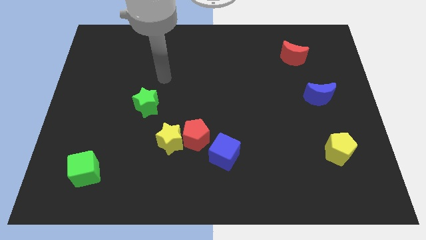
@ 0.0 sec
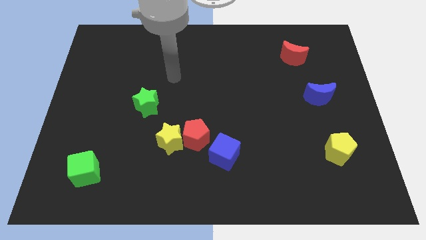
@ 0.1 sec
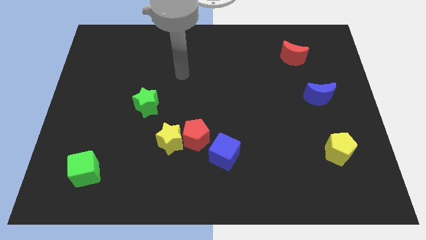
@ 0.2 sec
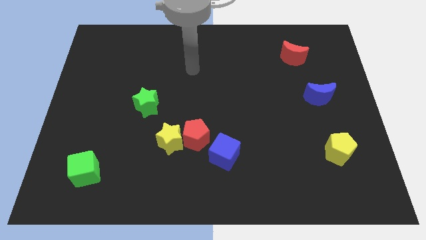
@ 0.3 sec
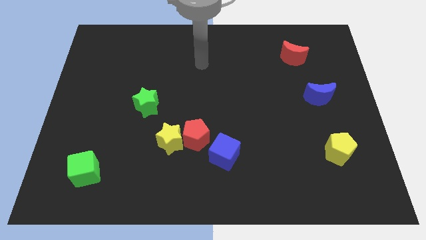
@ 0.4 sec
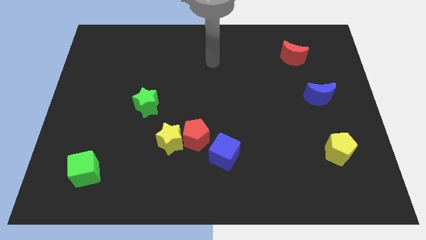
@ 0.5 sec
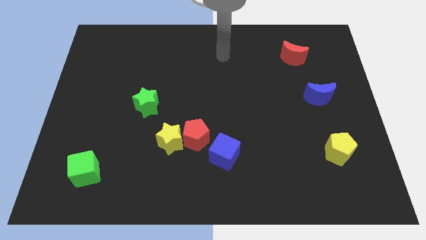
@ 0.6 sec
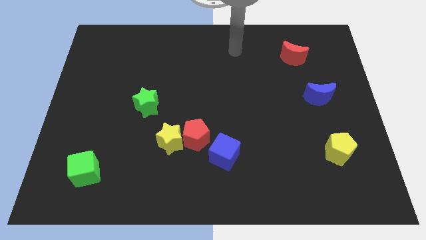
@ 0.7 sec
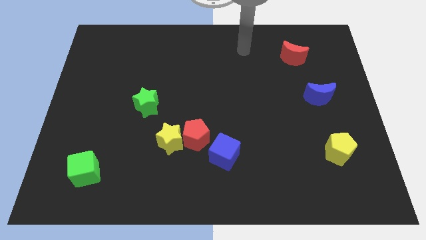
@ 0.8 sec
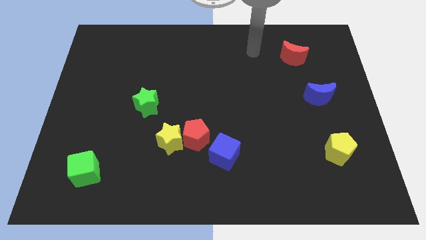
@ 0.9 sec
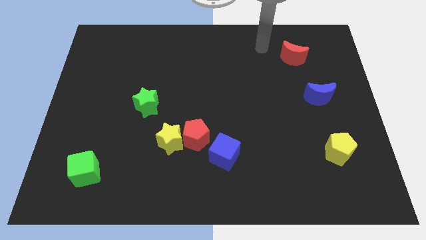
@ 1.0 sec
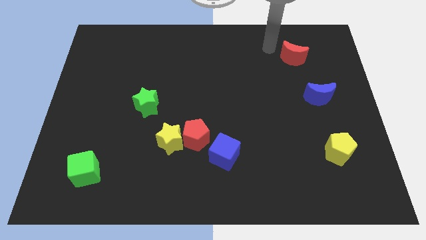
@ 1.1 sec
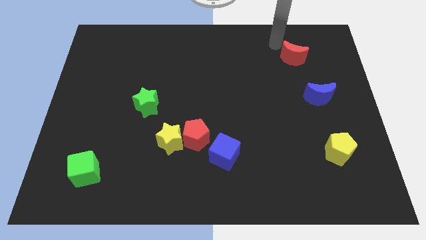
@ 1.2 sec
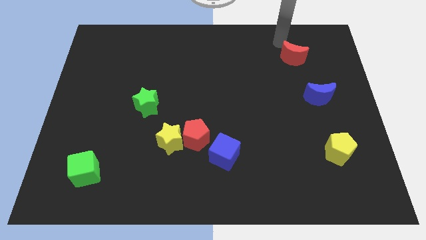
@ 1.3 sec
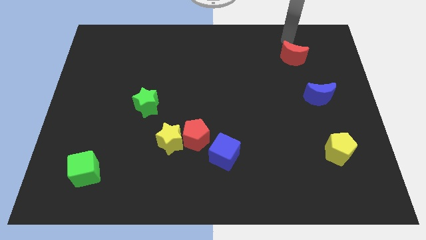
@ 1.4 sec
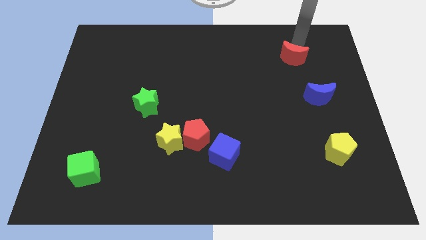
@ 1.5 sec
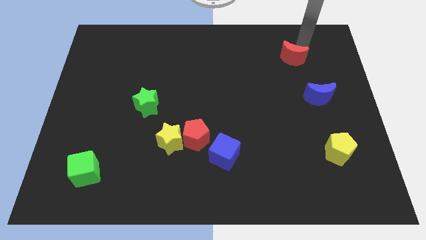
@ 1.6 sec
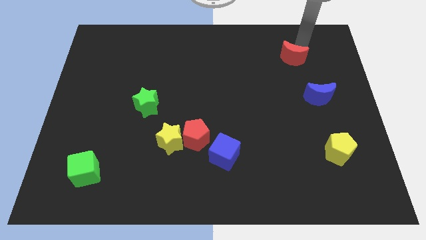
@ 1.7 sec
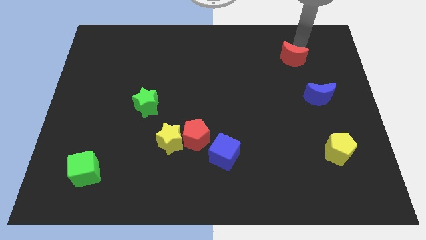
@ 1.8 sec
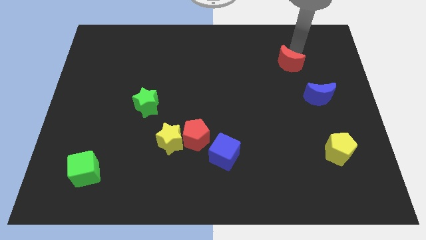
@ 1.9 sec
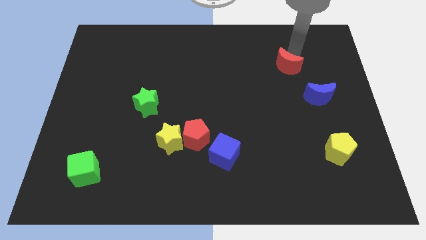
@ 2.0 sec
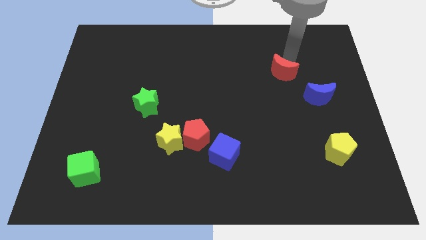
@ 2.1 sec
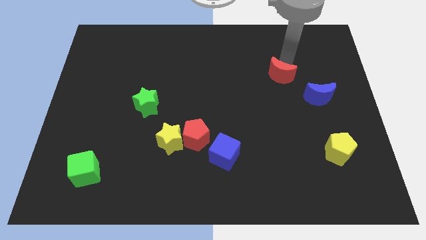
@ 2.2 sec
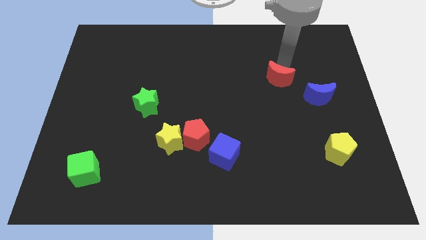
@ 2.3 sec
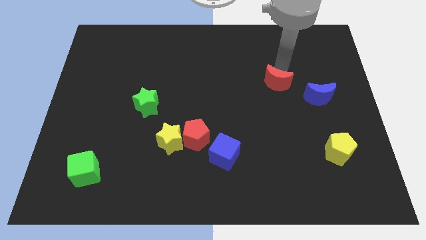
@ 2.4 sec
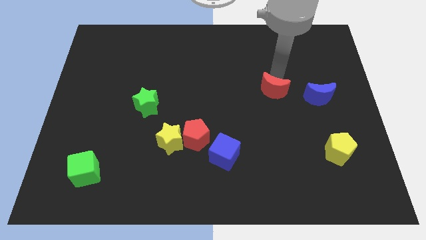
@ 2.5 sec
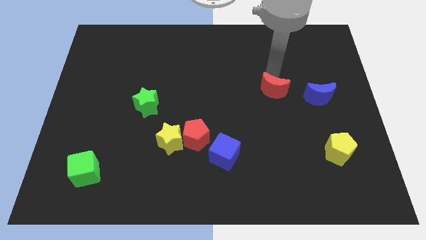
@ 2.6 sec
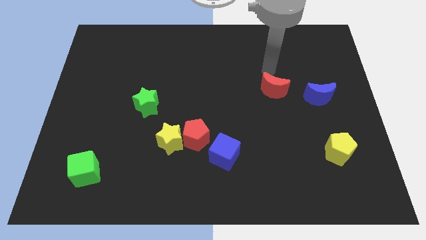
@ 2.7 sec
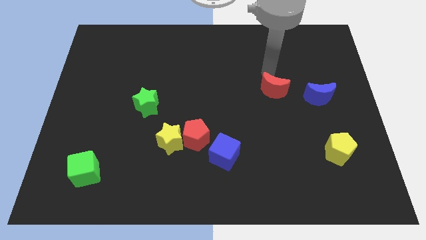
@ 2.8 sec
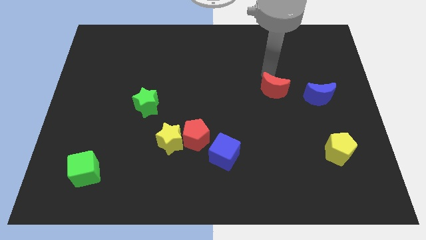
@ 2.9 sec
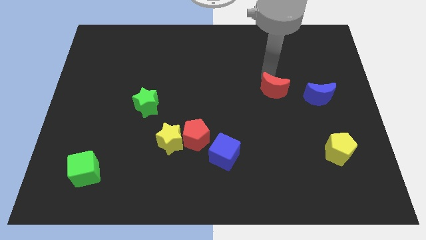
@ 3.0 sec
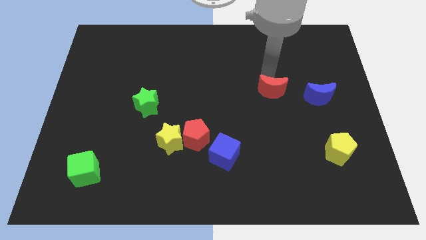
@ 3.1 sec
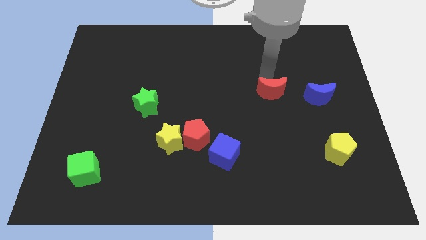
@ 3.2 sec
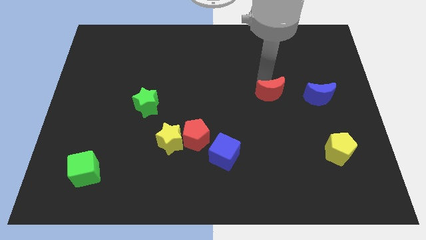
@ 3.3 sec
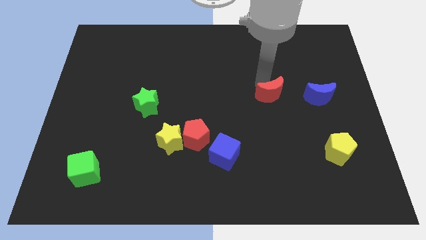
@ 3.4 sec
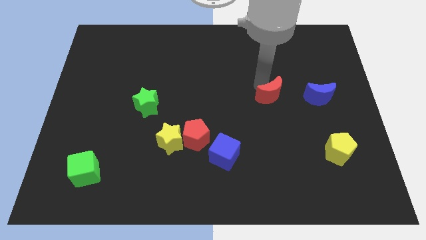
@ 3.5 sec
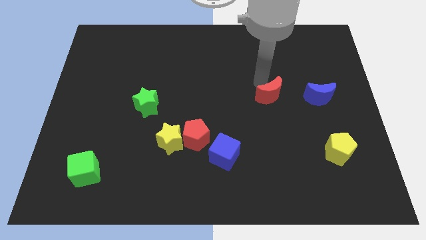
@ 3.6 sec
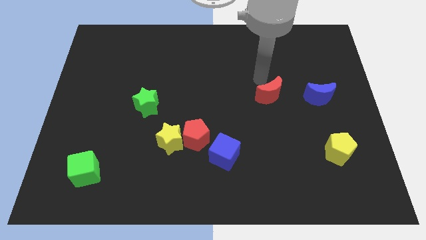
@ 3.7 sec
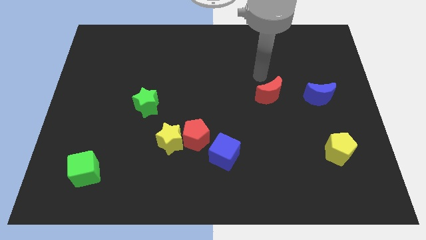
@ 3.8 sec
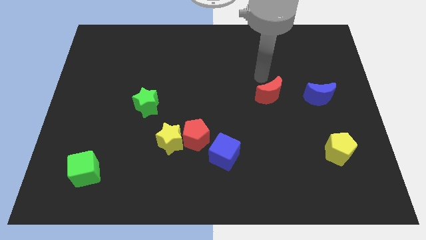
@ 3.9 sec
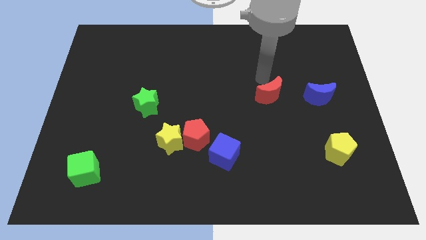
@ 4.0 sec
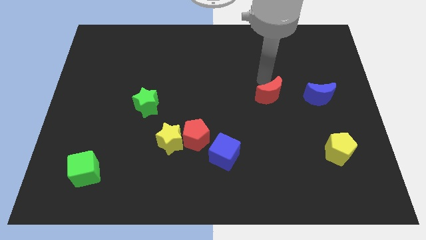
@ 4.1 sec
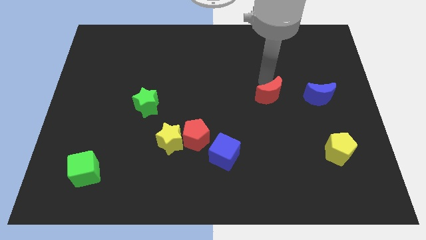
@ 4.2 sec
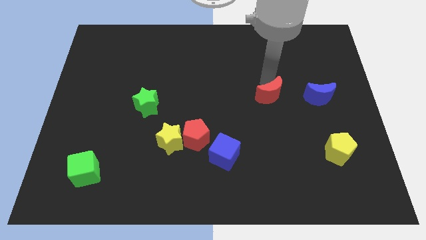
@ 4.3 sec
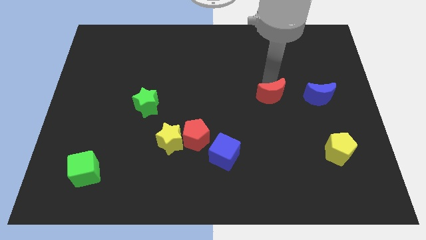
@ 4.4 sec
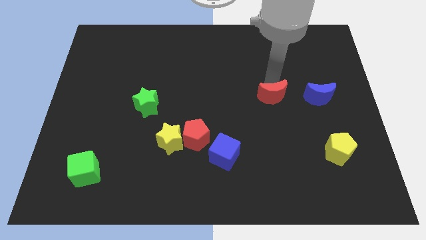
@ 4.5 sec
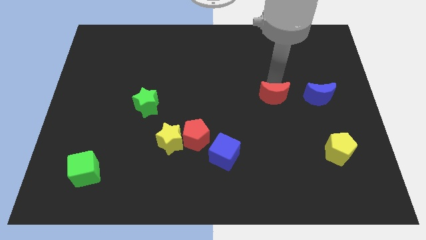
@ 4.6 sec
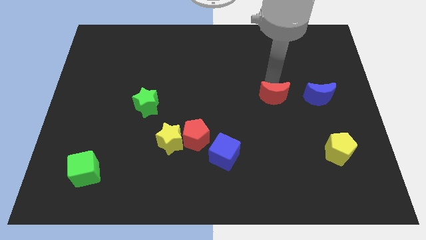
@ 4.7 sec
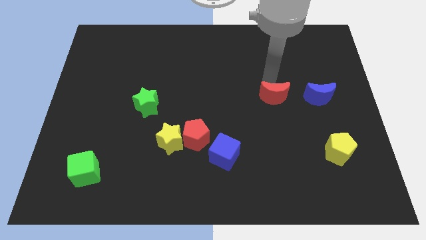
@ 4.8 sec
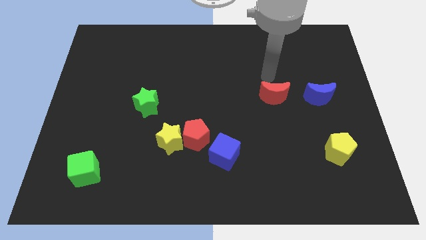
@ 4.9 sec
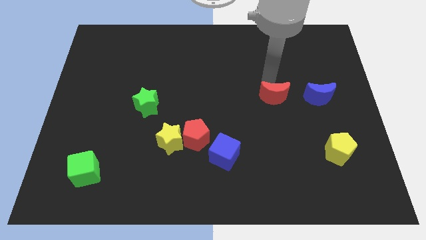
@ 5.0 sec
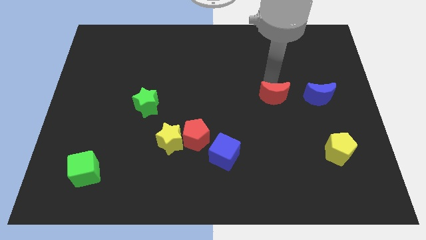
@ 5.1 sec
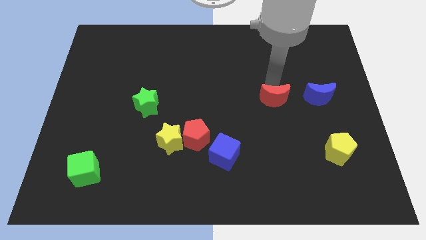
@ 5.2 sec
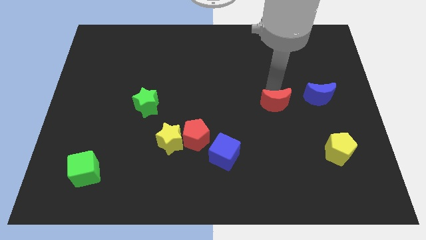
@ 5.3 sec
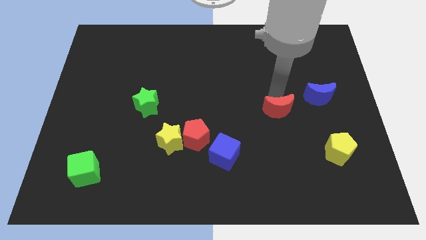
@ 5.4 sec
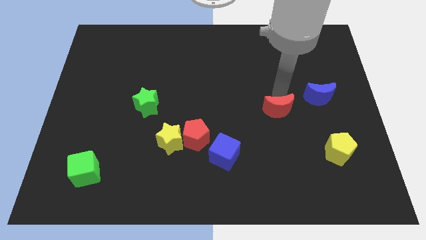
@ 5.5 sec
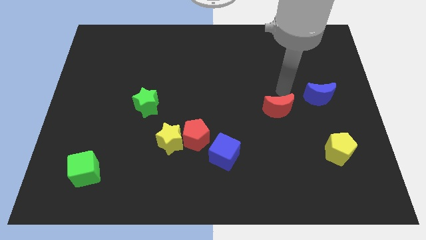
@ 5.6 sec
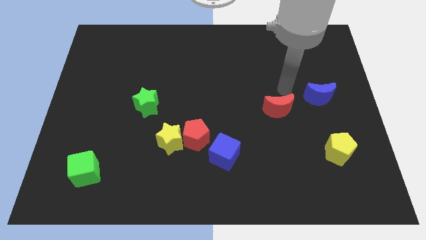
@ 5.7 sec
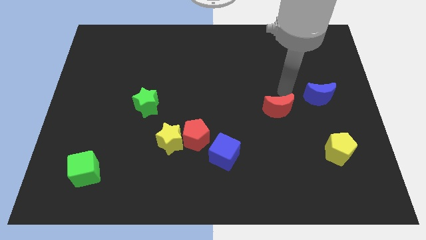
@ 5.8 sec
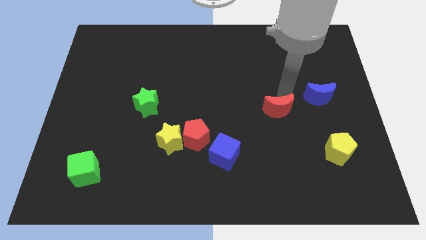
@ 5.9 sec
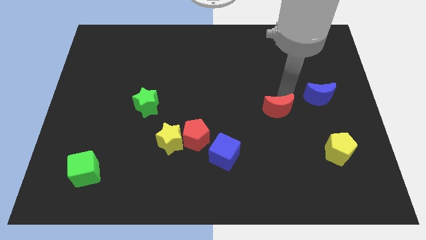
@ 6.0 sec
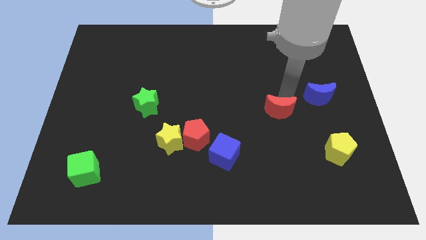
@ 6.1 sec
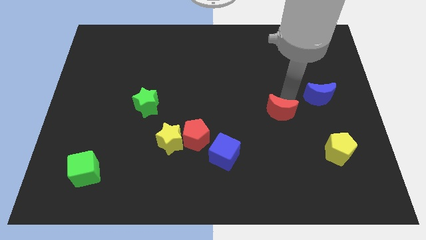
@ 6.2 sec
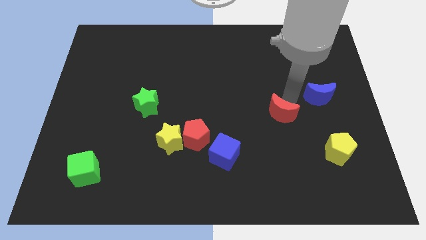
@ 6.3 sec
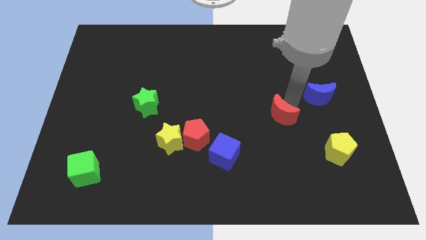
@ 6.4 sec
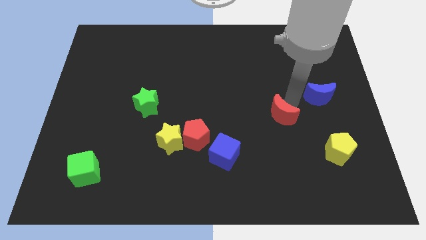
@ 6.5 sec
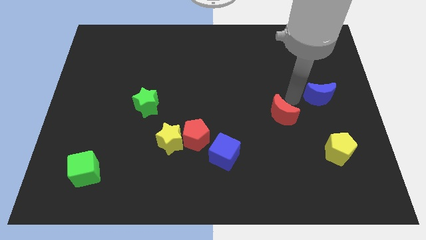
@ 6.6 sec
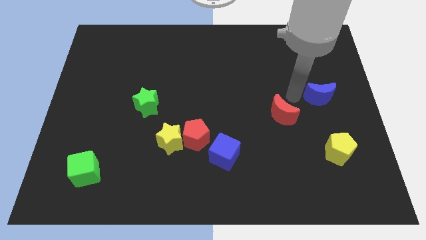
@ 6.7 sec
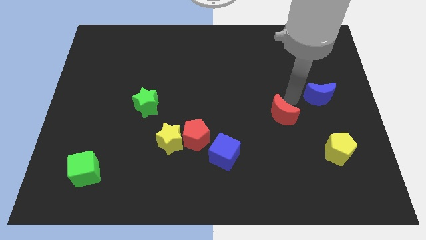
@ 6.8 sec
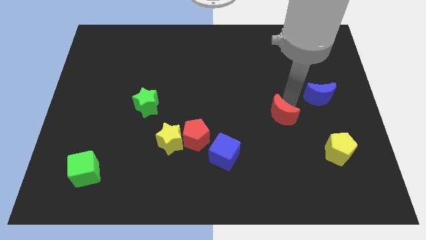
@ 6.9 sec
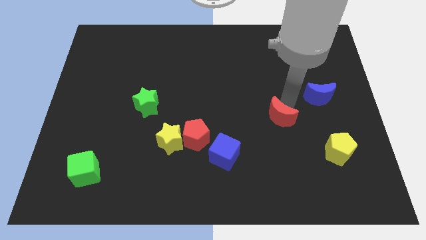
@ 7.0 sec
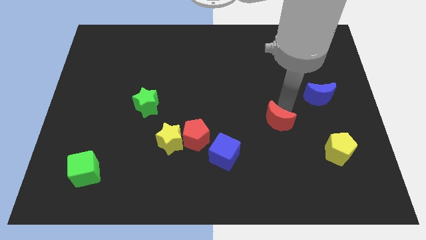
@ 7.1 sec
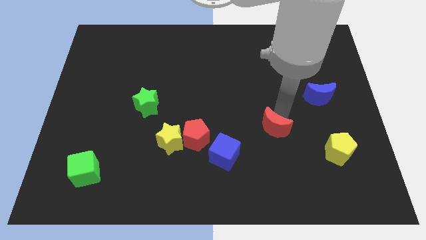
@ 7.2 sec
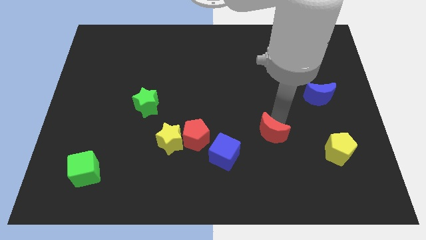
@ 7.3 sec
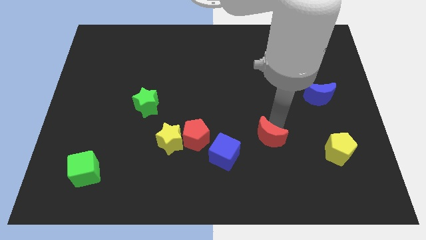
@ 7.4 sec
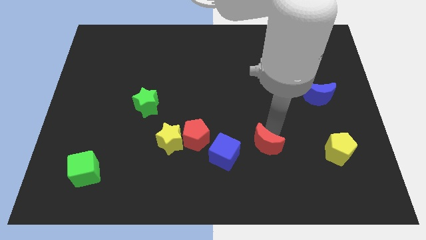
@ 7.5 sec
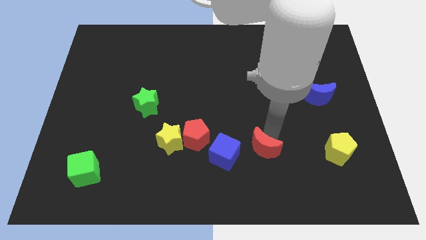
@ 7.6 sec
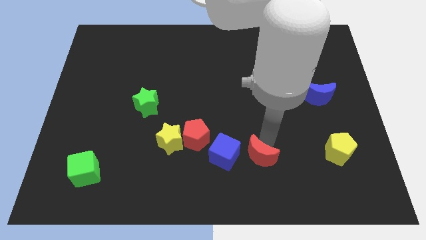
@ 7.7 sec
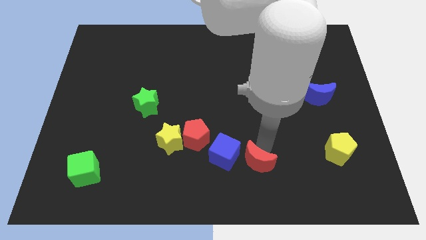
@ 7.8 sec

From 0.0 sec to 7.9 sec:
move the red moon diagonally down and to the right of the blue cube
